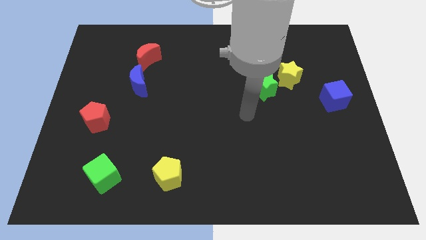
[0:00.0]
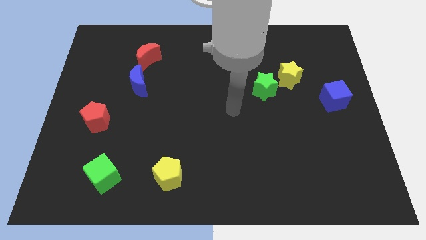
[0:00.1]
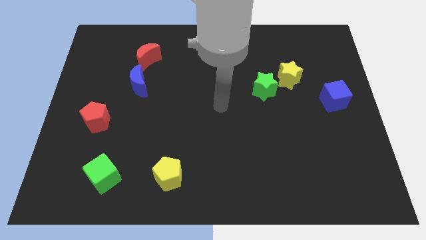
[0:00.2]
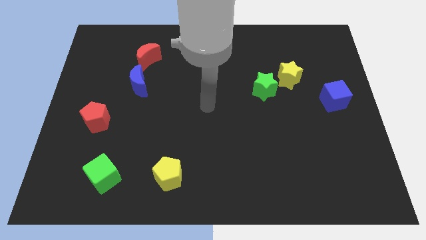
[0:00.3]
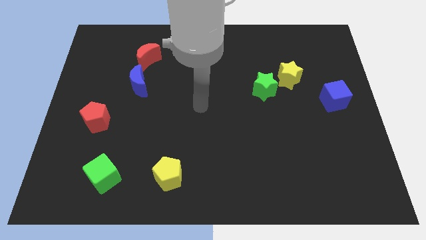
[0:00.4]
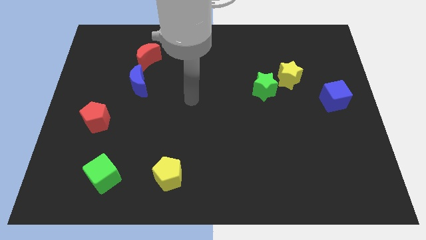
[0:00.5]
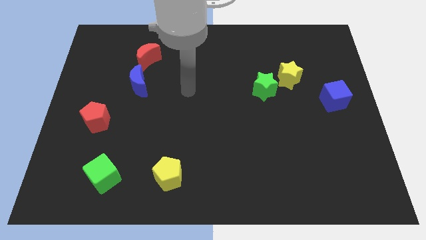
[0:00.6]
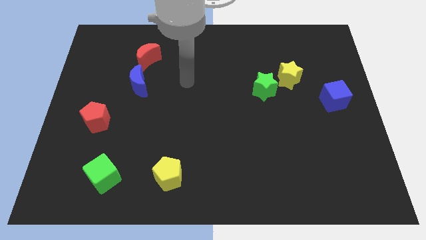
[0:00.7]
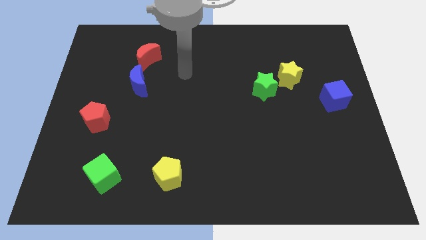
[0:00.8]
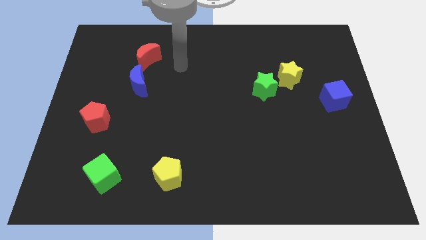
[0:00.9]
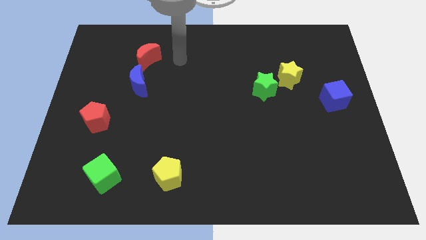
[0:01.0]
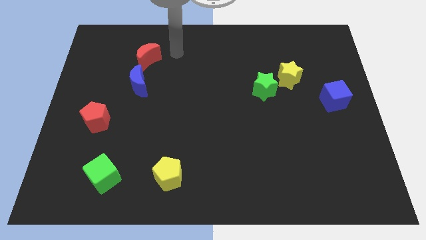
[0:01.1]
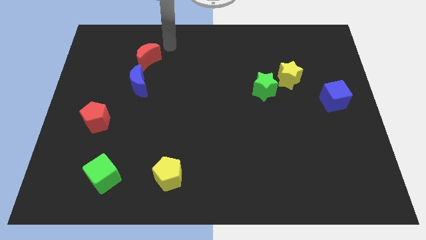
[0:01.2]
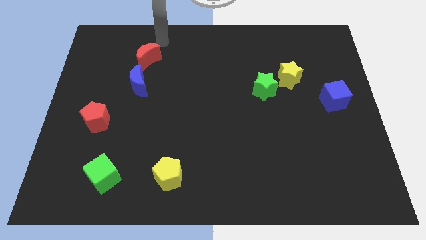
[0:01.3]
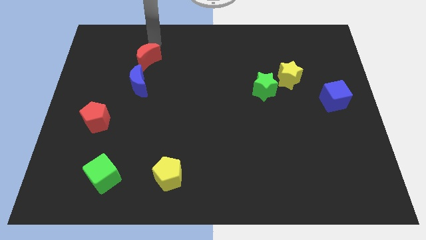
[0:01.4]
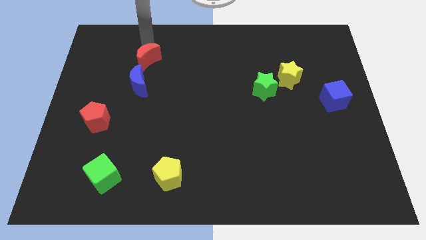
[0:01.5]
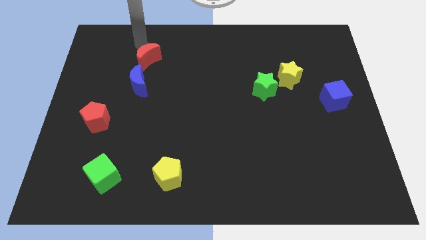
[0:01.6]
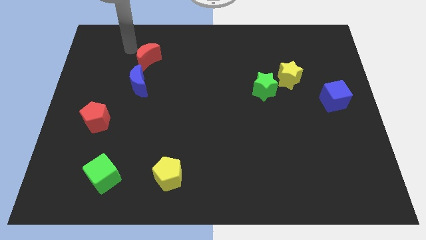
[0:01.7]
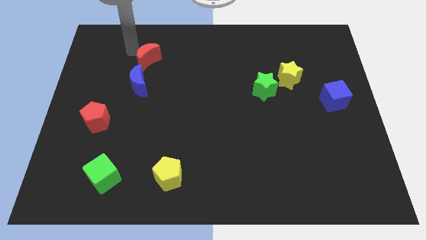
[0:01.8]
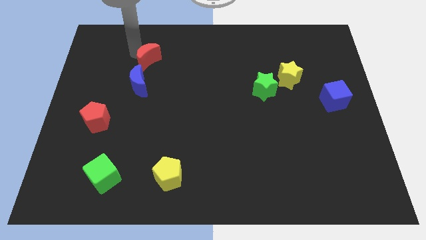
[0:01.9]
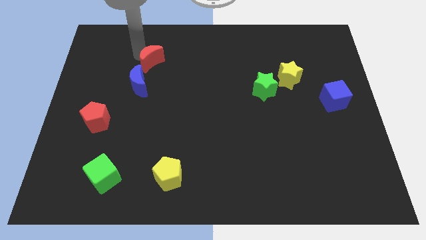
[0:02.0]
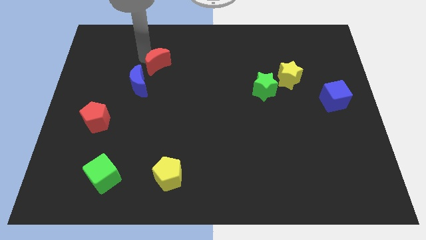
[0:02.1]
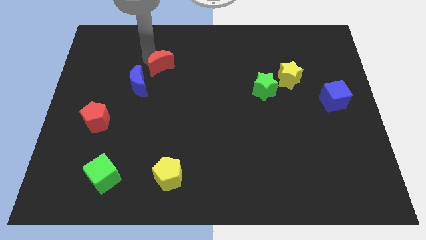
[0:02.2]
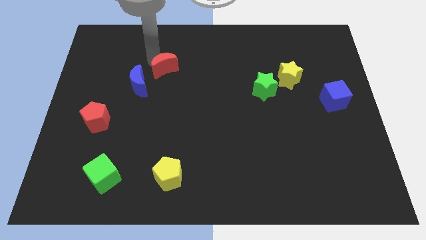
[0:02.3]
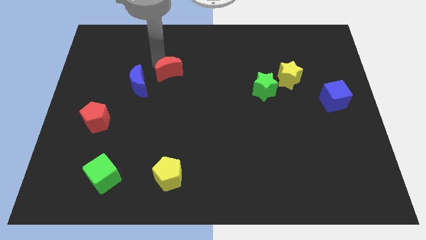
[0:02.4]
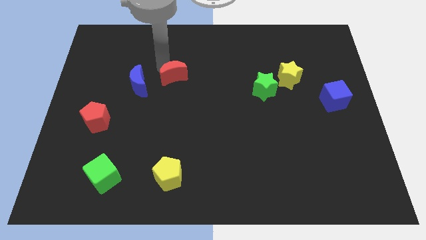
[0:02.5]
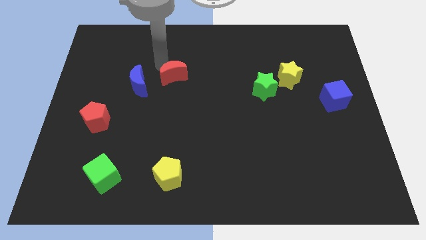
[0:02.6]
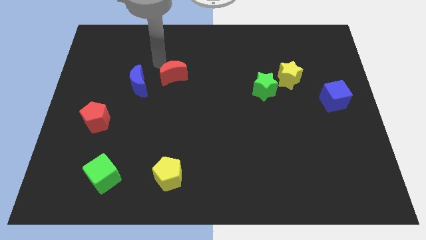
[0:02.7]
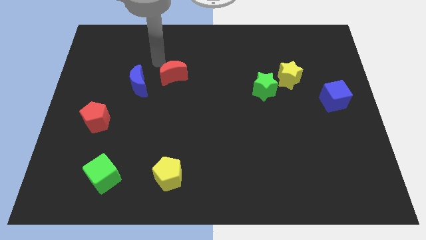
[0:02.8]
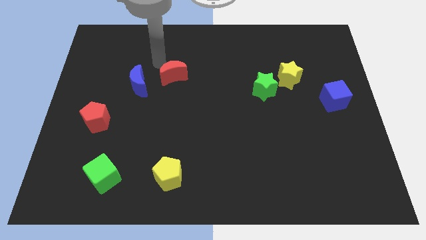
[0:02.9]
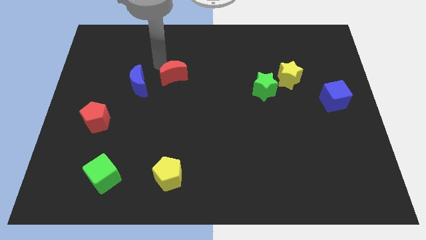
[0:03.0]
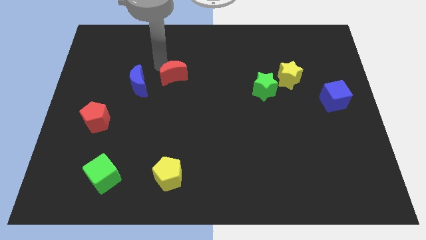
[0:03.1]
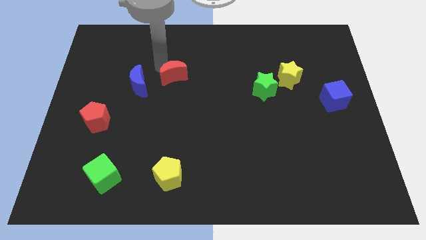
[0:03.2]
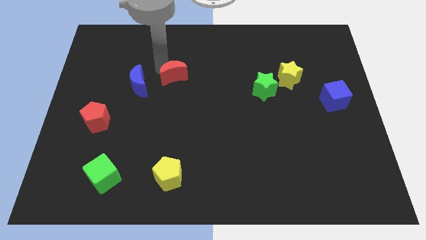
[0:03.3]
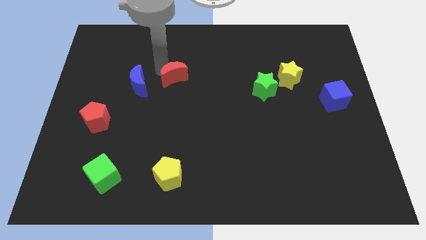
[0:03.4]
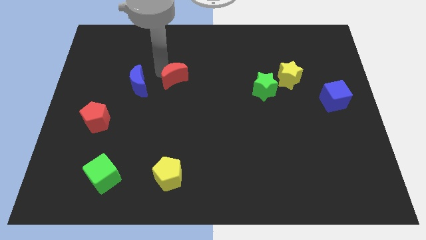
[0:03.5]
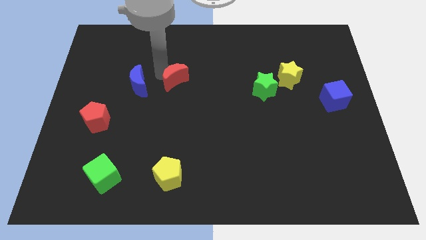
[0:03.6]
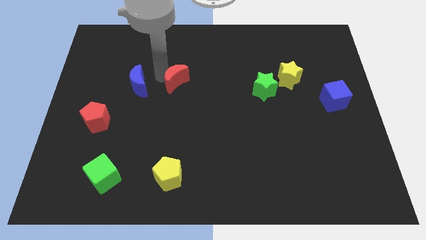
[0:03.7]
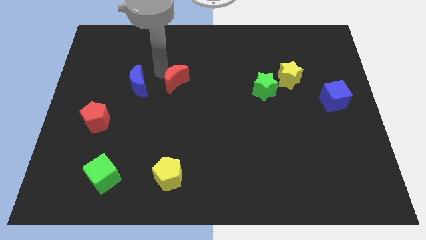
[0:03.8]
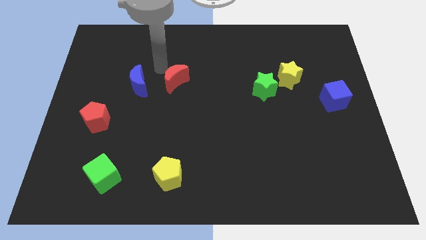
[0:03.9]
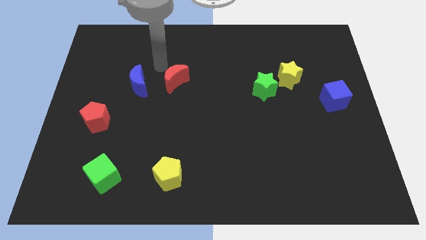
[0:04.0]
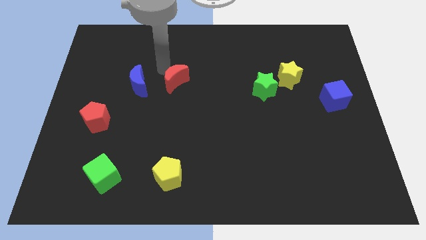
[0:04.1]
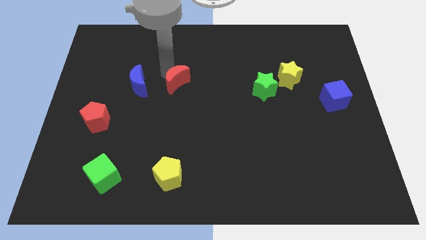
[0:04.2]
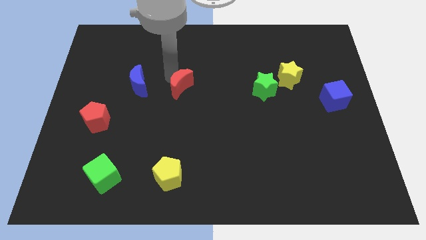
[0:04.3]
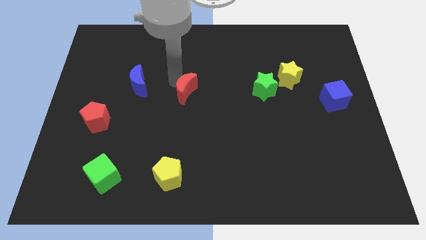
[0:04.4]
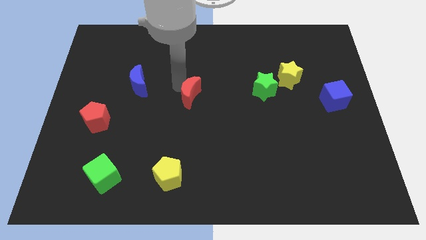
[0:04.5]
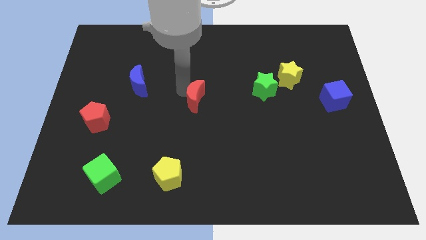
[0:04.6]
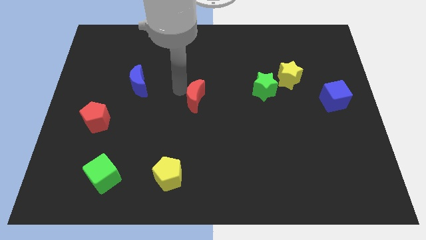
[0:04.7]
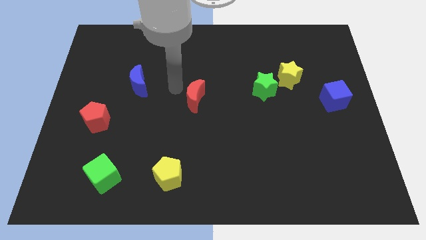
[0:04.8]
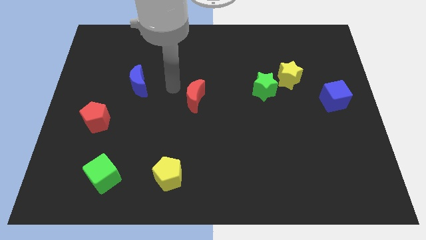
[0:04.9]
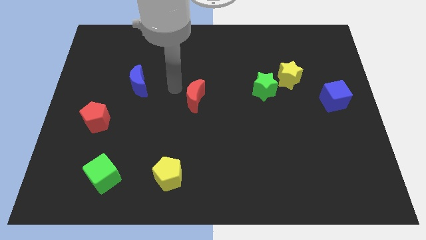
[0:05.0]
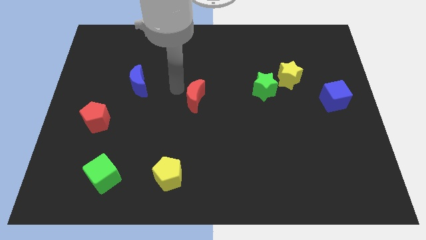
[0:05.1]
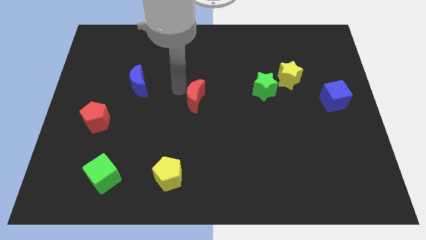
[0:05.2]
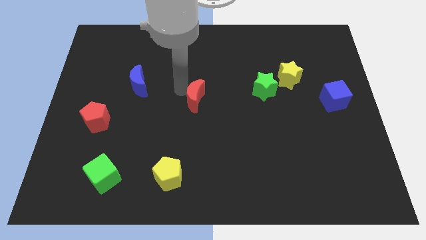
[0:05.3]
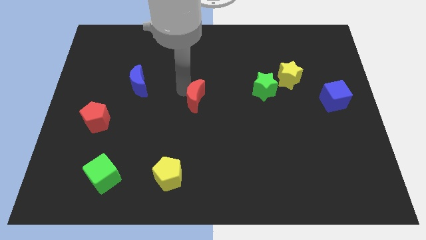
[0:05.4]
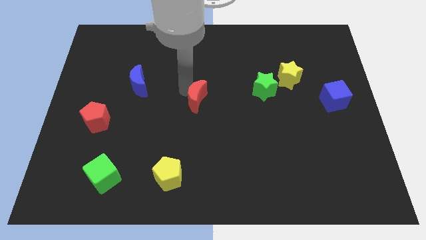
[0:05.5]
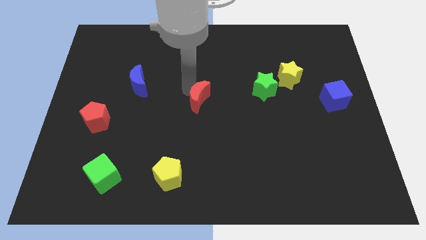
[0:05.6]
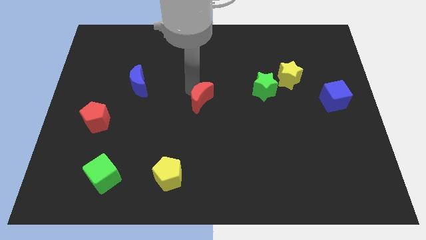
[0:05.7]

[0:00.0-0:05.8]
move the red moon diagonally down and right

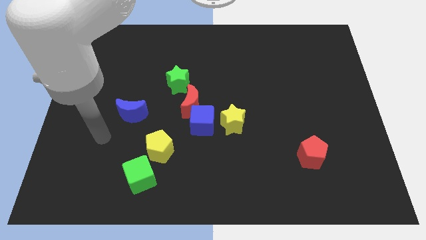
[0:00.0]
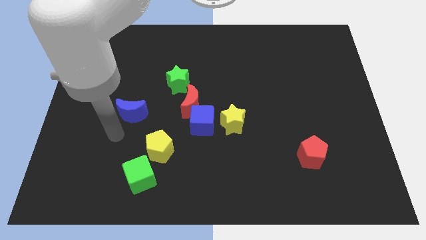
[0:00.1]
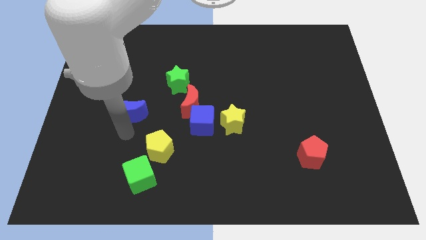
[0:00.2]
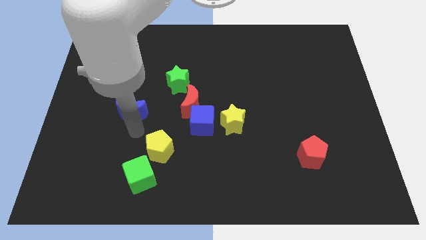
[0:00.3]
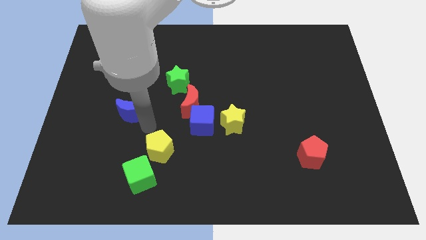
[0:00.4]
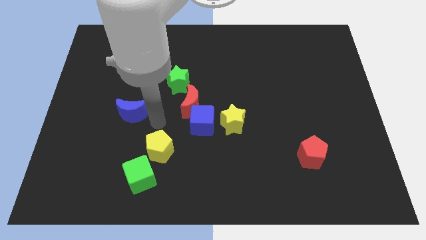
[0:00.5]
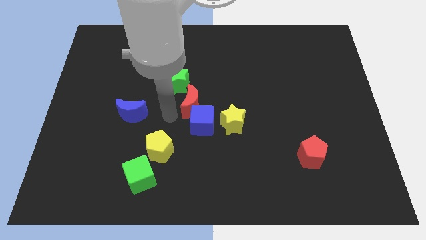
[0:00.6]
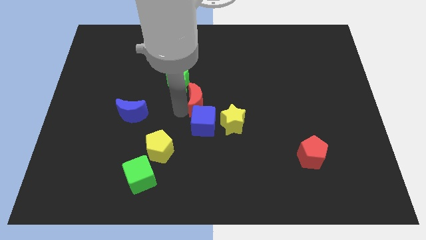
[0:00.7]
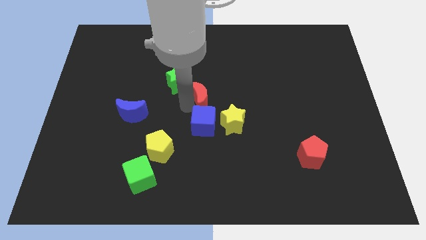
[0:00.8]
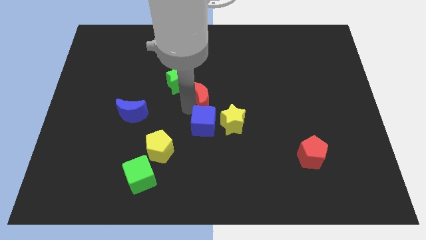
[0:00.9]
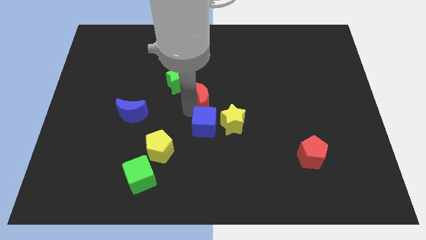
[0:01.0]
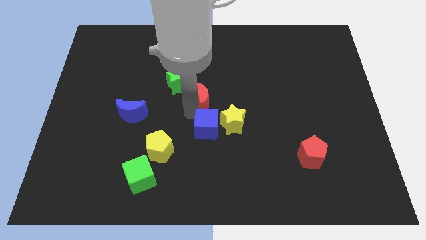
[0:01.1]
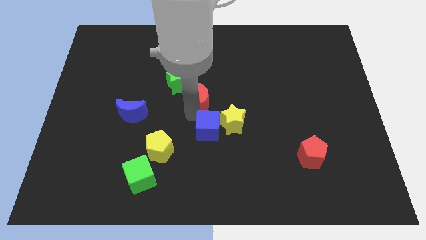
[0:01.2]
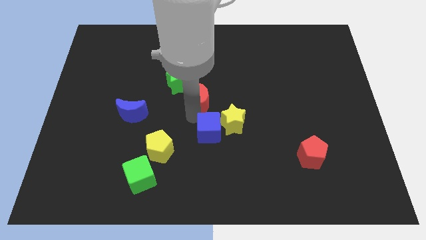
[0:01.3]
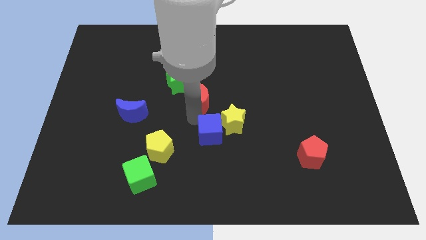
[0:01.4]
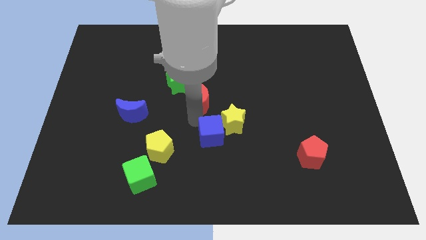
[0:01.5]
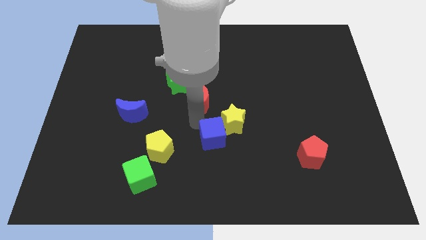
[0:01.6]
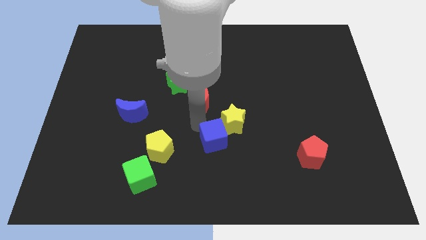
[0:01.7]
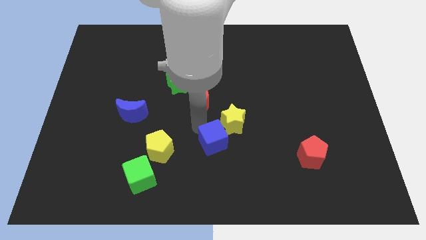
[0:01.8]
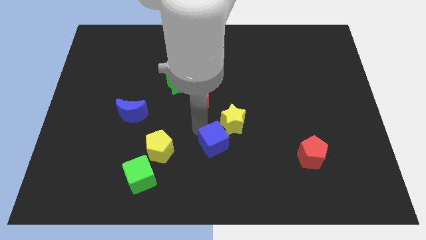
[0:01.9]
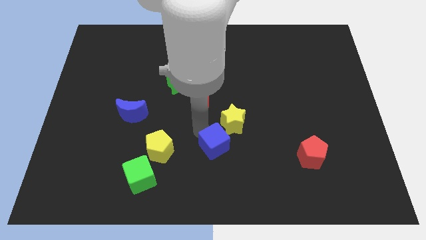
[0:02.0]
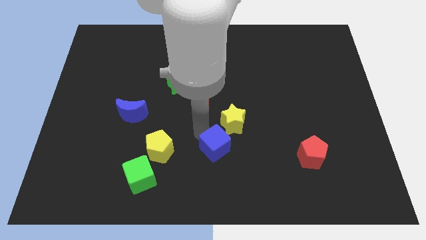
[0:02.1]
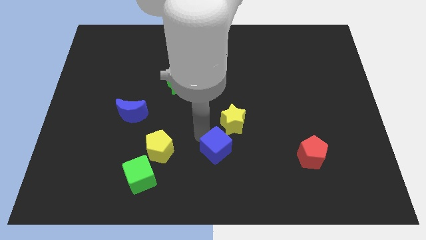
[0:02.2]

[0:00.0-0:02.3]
move the blue cube downwards and to the right a little
